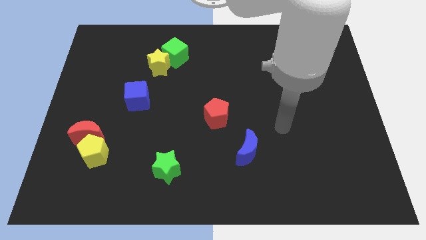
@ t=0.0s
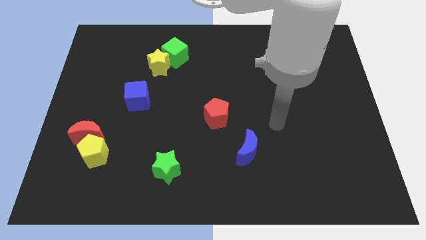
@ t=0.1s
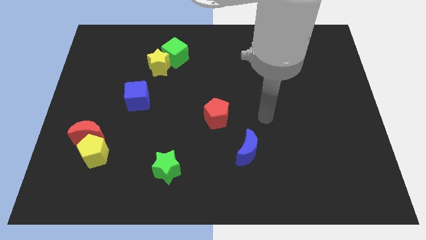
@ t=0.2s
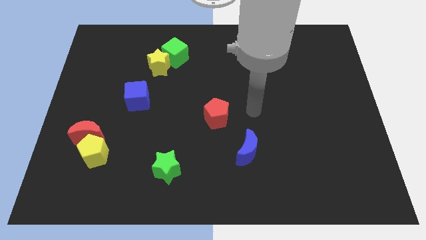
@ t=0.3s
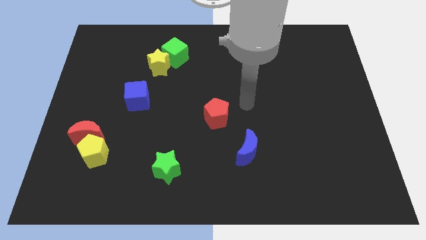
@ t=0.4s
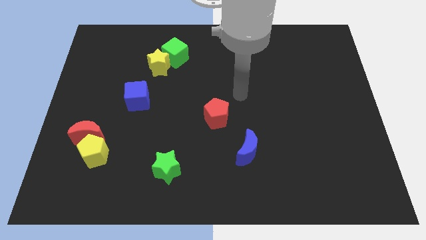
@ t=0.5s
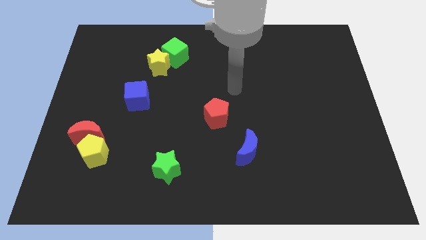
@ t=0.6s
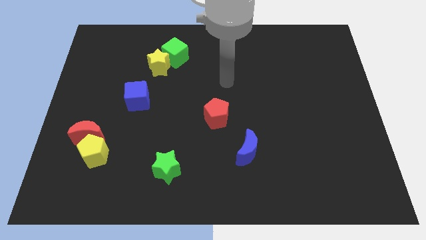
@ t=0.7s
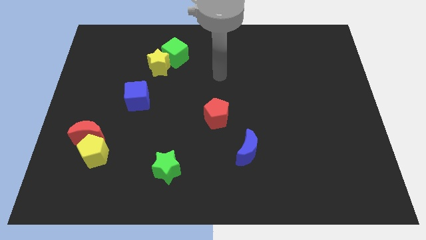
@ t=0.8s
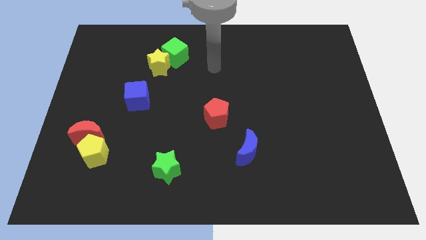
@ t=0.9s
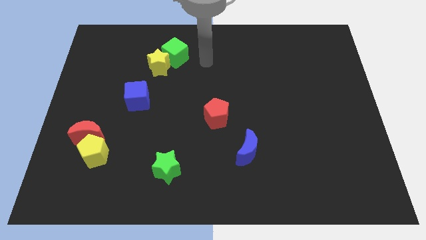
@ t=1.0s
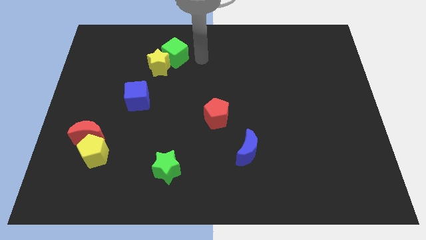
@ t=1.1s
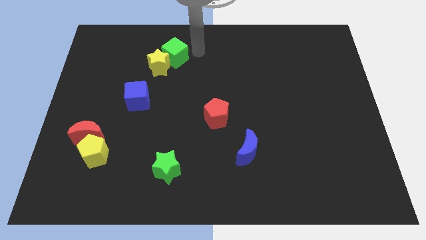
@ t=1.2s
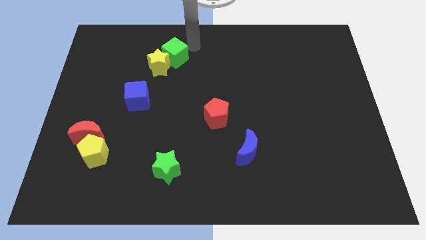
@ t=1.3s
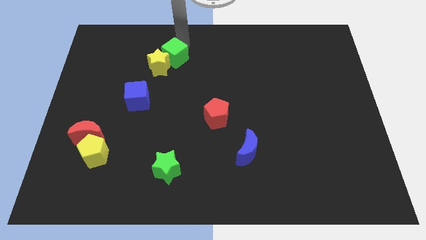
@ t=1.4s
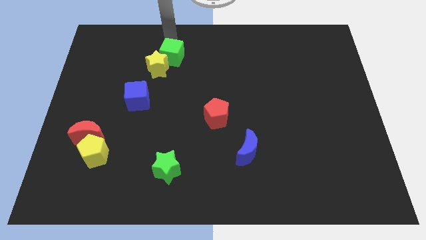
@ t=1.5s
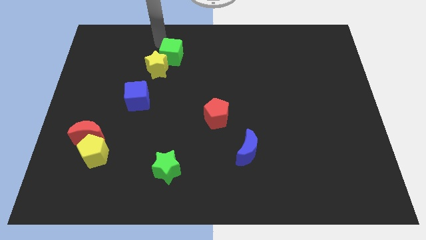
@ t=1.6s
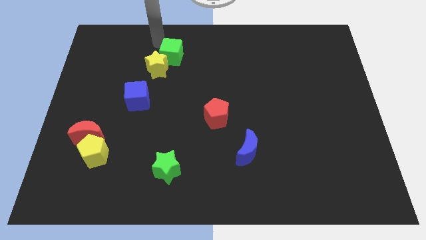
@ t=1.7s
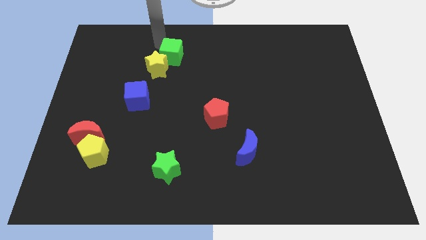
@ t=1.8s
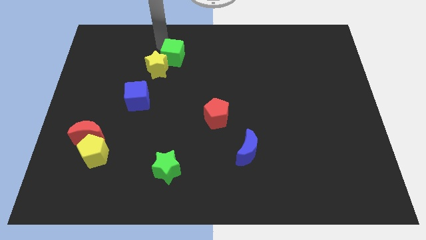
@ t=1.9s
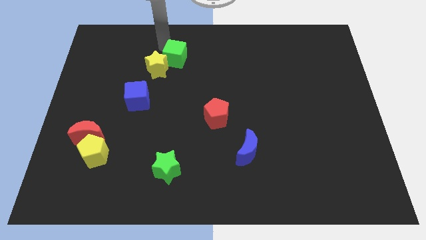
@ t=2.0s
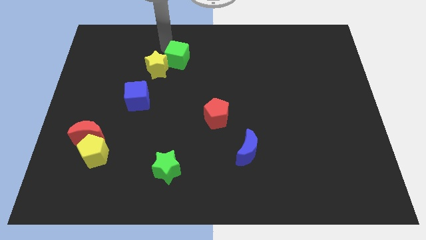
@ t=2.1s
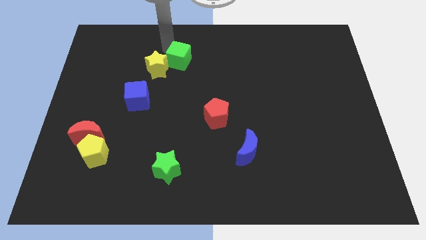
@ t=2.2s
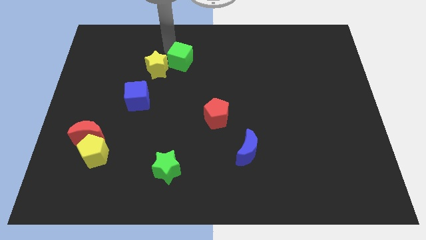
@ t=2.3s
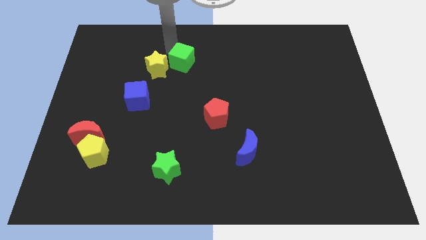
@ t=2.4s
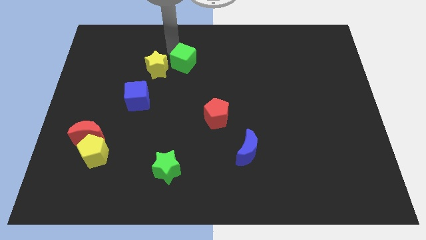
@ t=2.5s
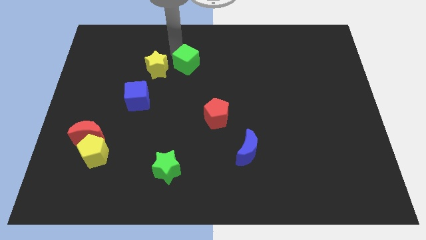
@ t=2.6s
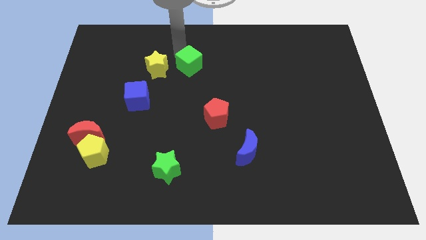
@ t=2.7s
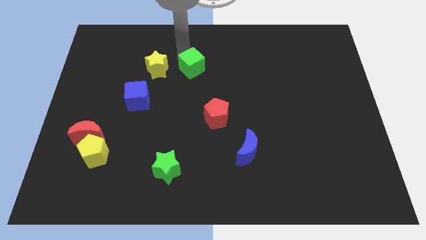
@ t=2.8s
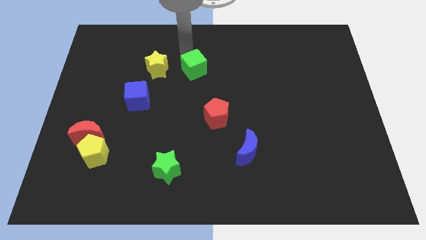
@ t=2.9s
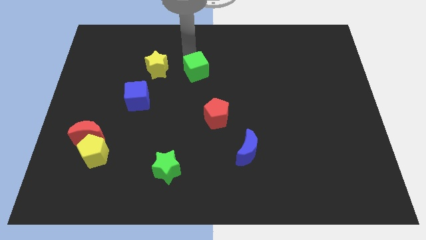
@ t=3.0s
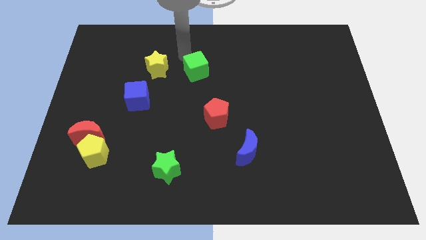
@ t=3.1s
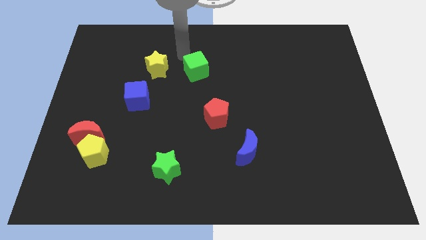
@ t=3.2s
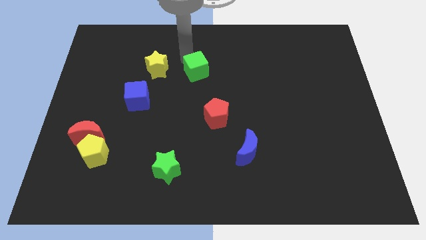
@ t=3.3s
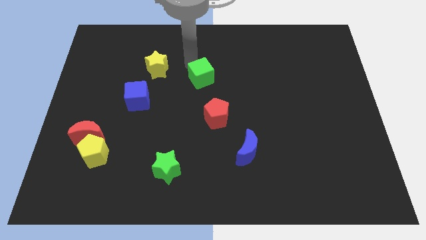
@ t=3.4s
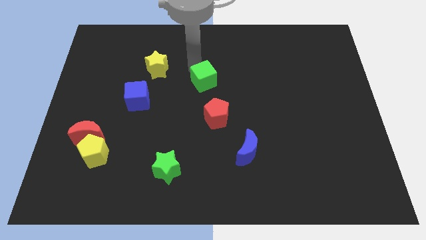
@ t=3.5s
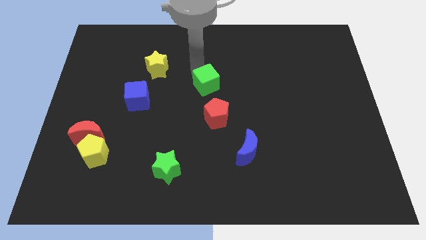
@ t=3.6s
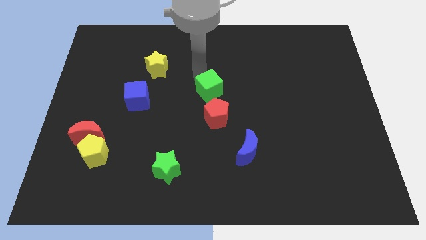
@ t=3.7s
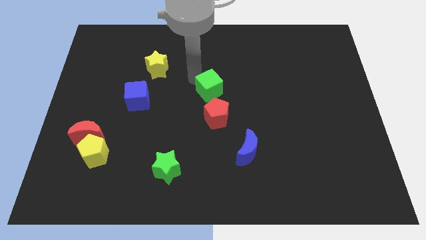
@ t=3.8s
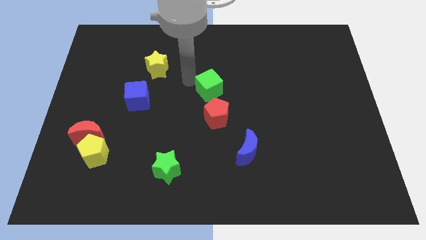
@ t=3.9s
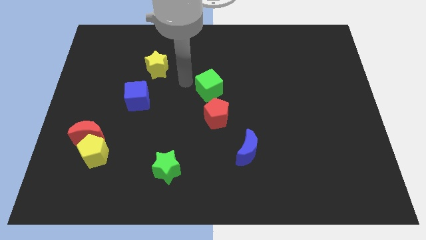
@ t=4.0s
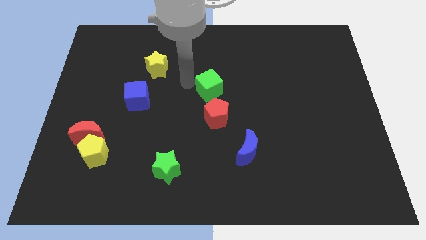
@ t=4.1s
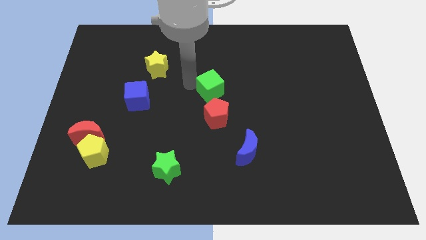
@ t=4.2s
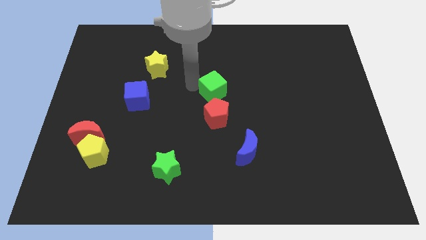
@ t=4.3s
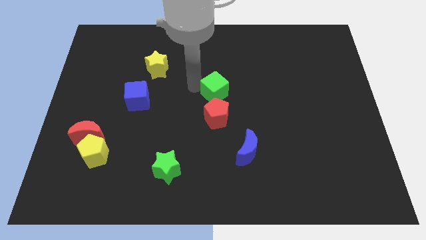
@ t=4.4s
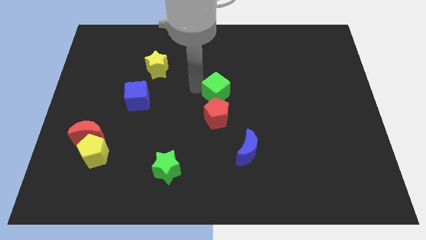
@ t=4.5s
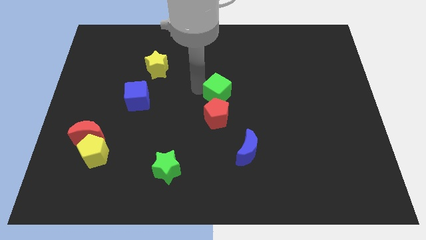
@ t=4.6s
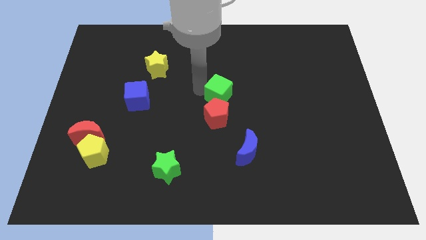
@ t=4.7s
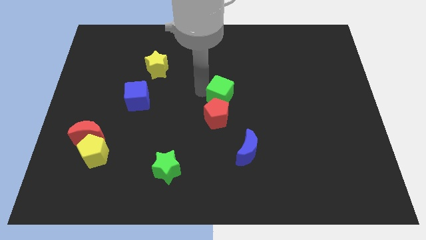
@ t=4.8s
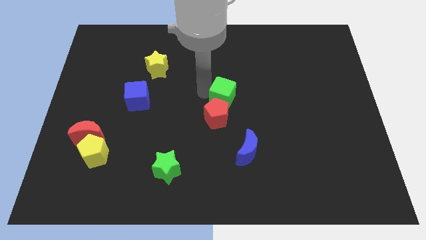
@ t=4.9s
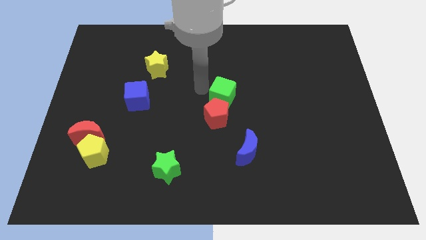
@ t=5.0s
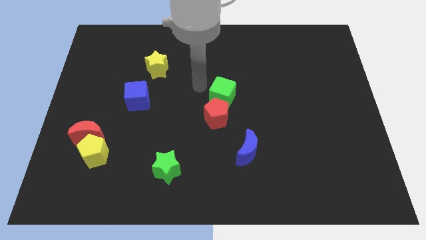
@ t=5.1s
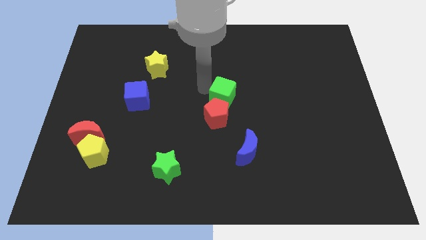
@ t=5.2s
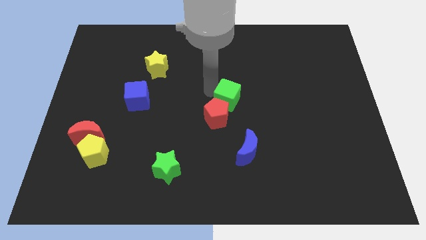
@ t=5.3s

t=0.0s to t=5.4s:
slide the green cube diagonally downwards and right

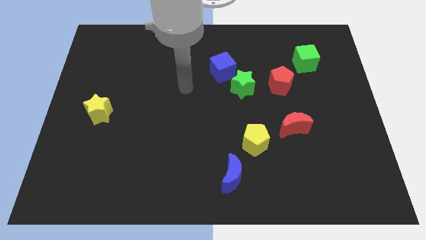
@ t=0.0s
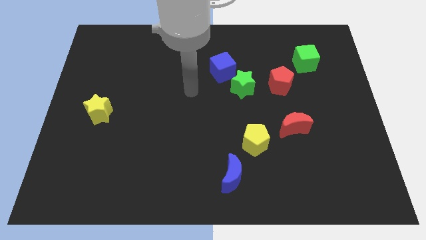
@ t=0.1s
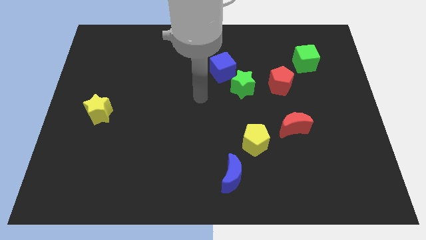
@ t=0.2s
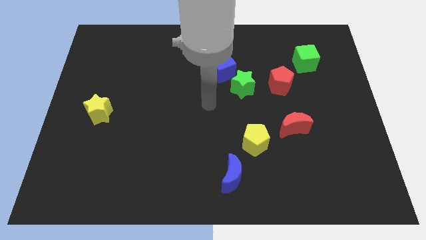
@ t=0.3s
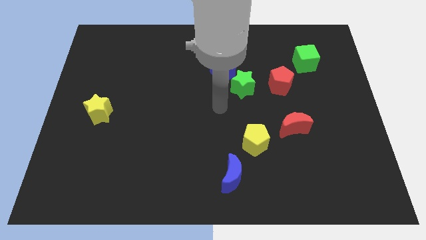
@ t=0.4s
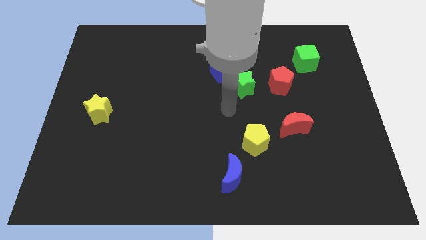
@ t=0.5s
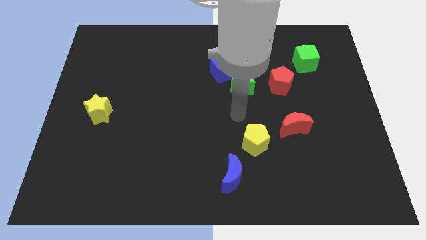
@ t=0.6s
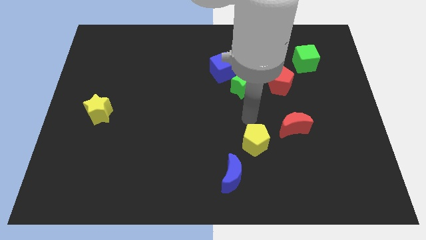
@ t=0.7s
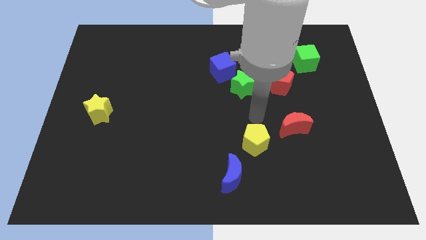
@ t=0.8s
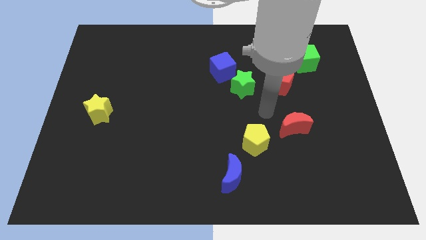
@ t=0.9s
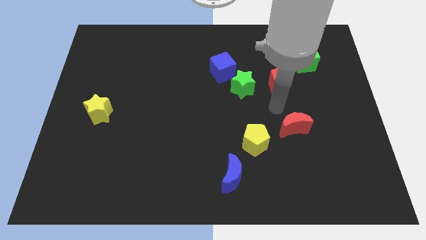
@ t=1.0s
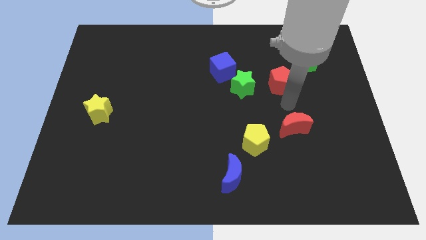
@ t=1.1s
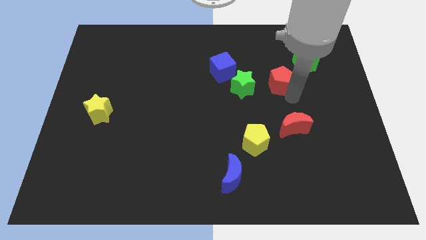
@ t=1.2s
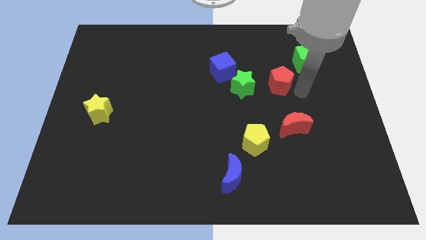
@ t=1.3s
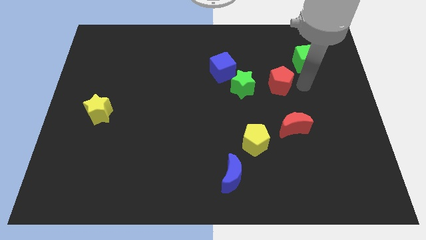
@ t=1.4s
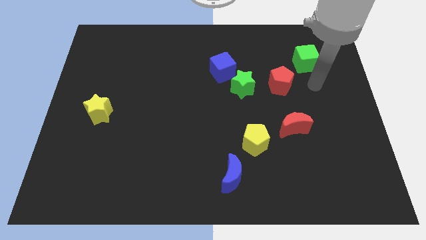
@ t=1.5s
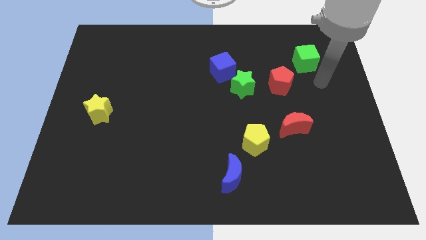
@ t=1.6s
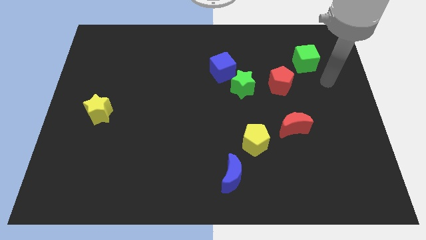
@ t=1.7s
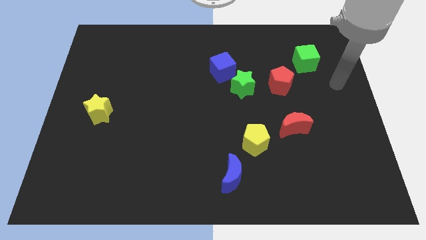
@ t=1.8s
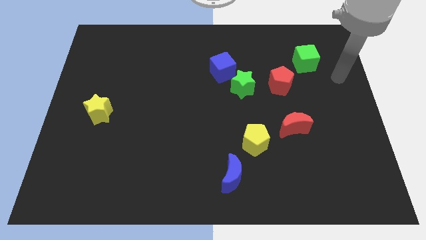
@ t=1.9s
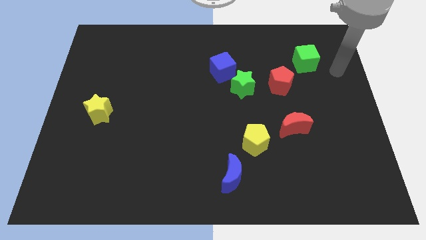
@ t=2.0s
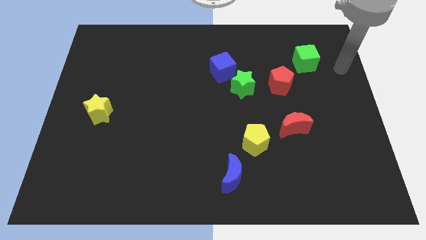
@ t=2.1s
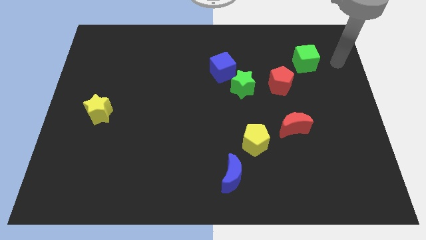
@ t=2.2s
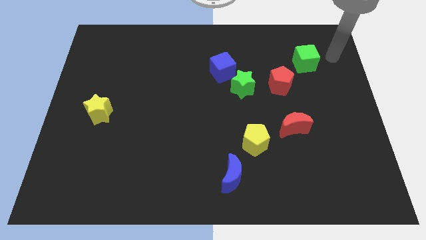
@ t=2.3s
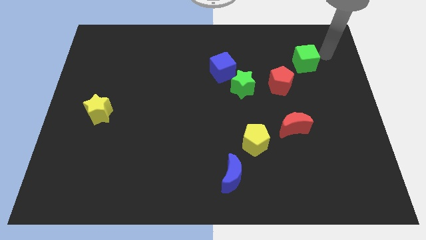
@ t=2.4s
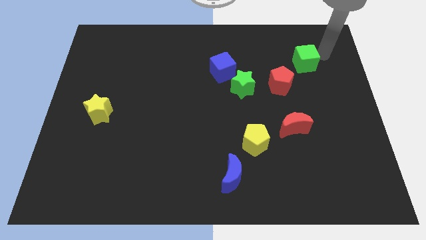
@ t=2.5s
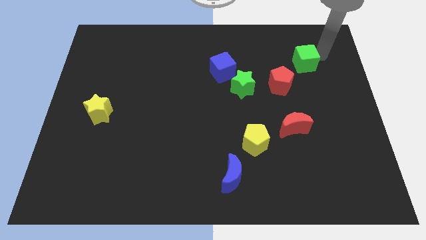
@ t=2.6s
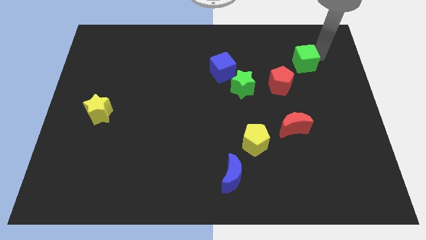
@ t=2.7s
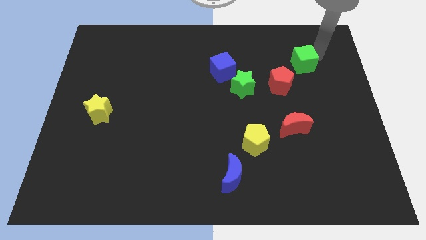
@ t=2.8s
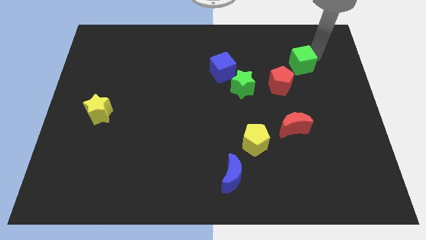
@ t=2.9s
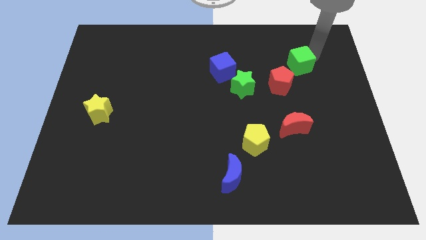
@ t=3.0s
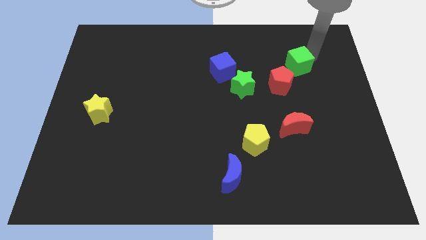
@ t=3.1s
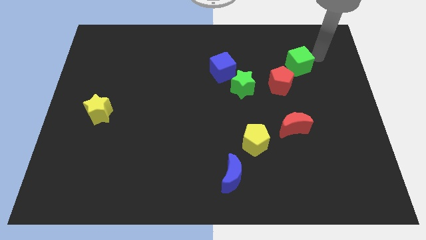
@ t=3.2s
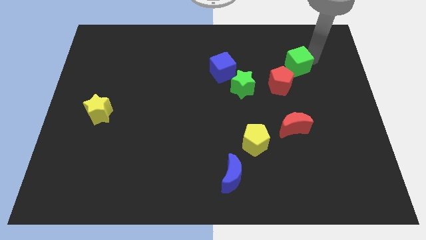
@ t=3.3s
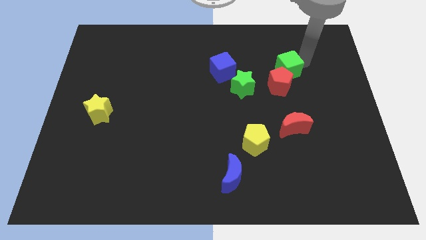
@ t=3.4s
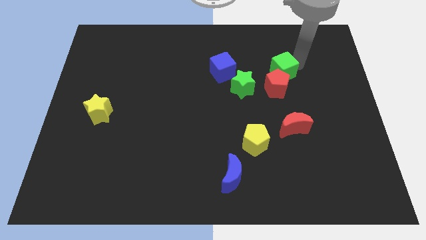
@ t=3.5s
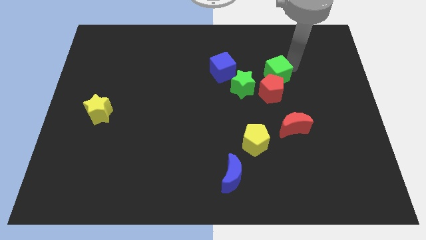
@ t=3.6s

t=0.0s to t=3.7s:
slightly slide the green cube downwards and left
